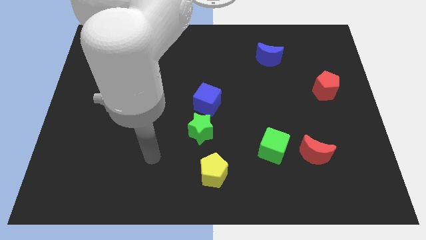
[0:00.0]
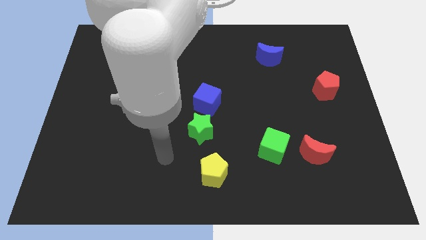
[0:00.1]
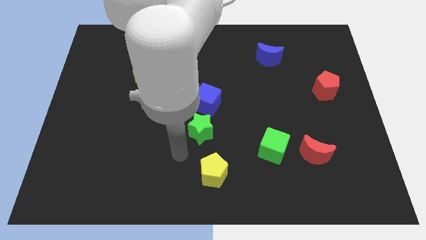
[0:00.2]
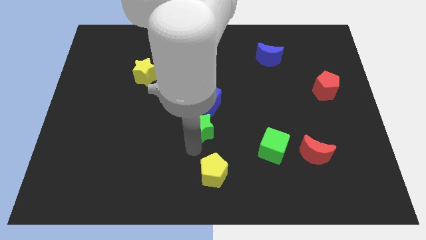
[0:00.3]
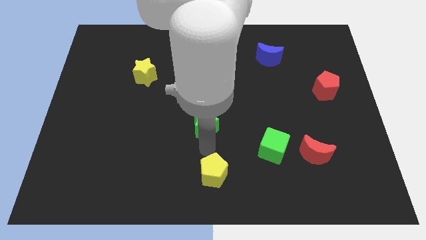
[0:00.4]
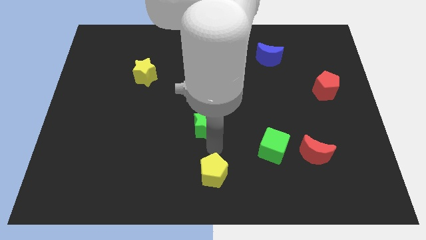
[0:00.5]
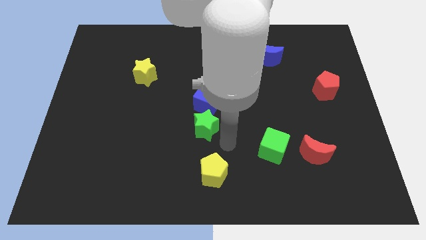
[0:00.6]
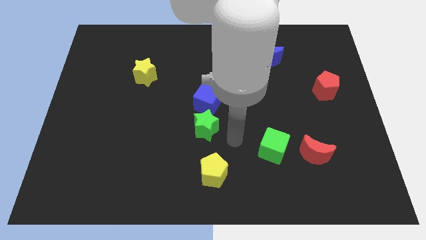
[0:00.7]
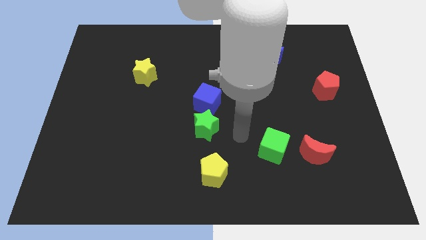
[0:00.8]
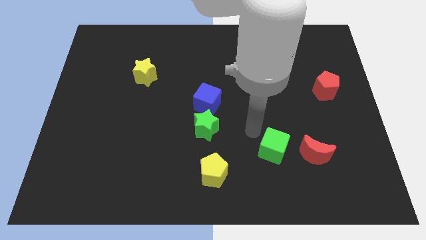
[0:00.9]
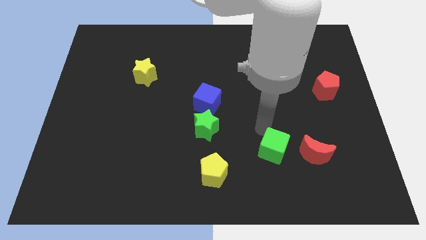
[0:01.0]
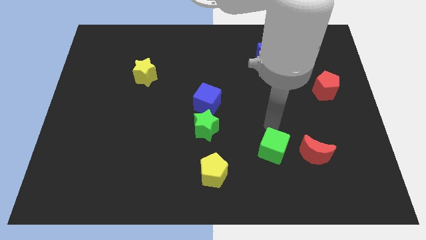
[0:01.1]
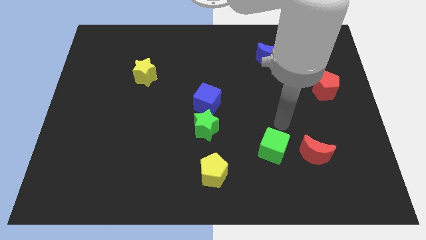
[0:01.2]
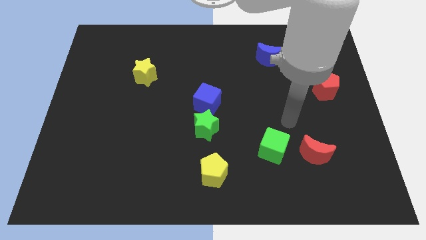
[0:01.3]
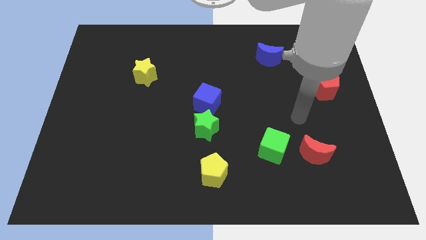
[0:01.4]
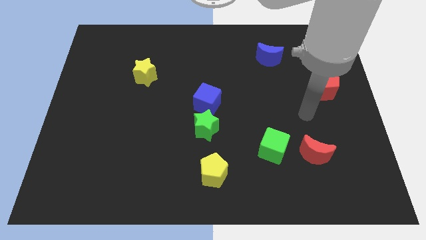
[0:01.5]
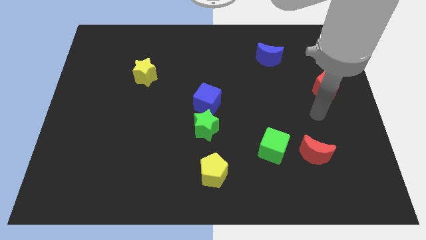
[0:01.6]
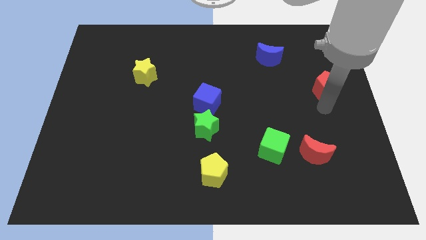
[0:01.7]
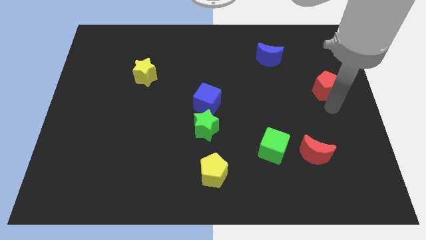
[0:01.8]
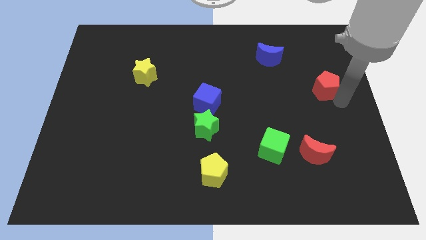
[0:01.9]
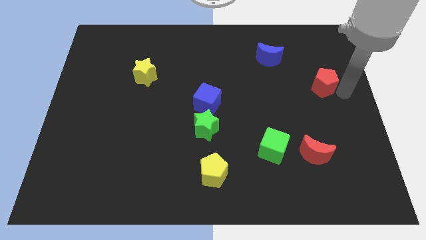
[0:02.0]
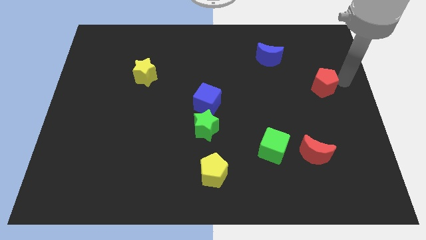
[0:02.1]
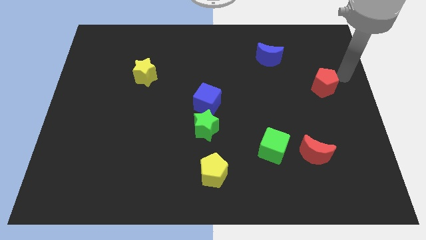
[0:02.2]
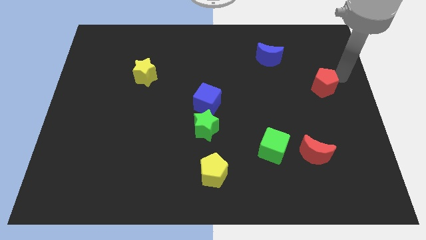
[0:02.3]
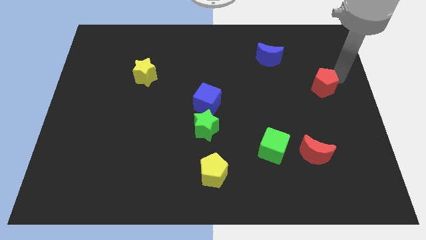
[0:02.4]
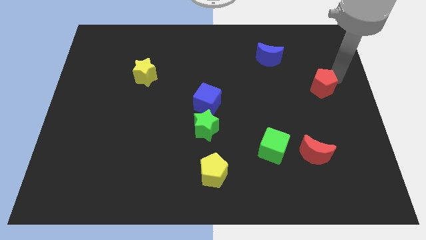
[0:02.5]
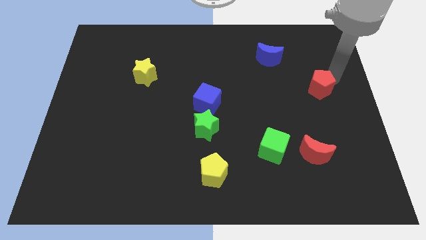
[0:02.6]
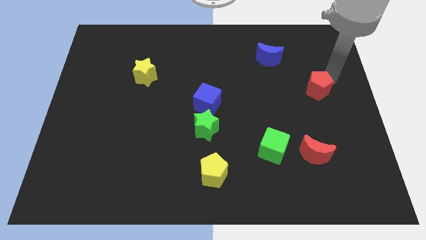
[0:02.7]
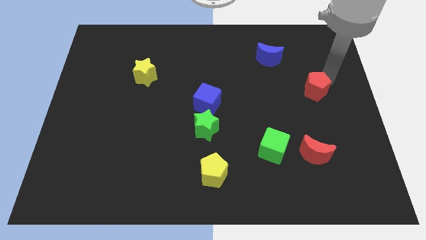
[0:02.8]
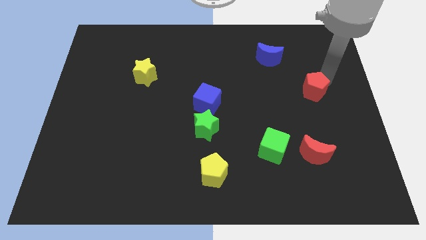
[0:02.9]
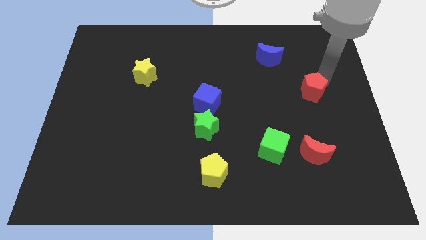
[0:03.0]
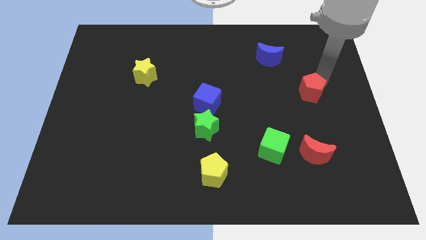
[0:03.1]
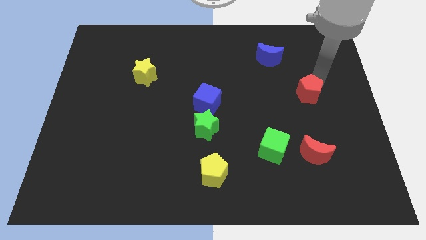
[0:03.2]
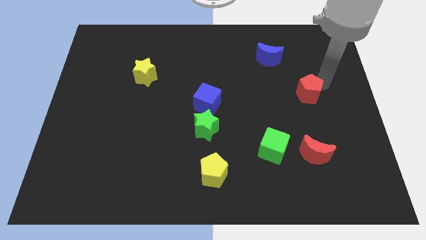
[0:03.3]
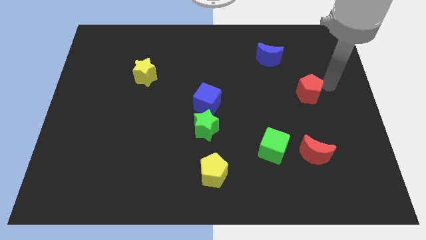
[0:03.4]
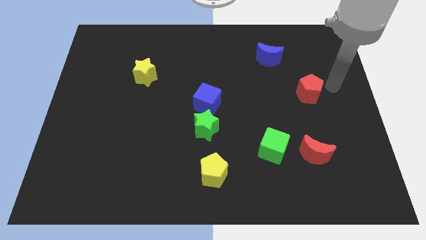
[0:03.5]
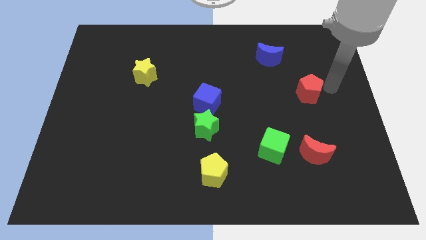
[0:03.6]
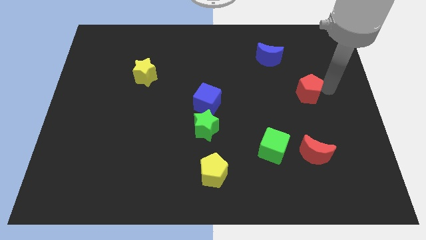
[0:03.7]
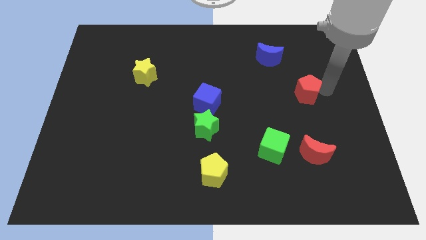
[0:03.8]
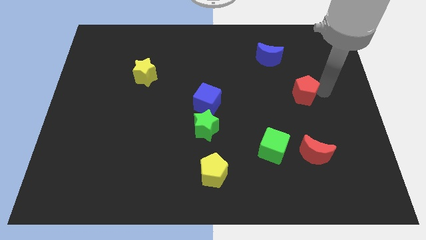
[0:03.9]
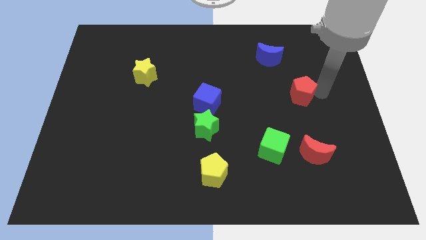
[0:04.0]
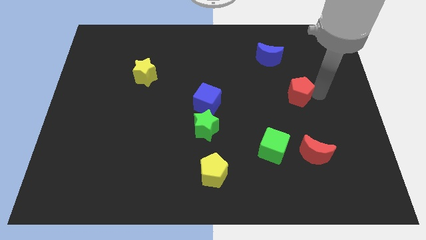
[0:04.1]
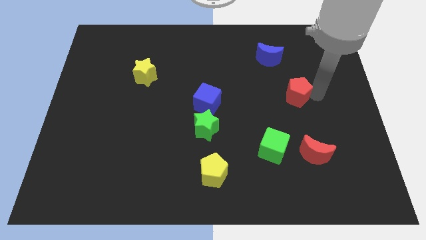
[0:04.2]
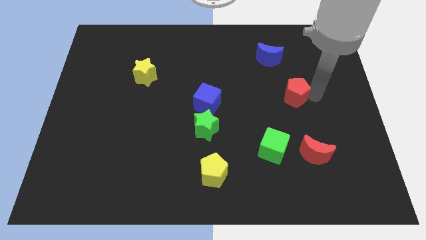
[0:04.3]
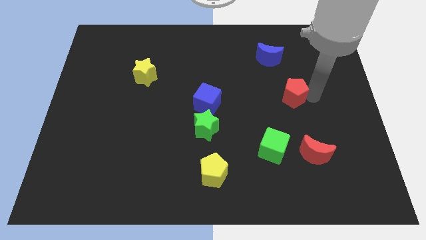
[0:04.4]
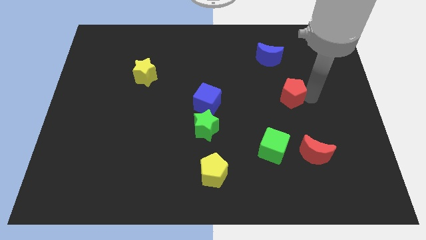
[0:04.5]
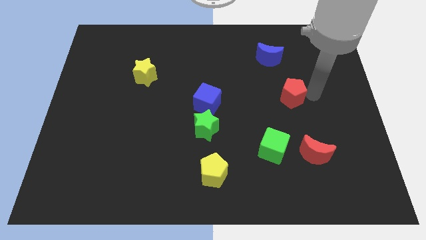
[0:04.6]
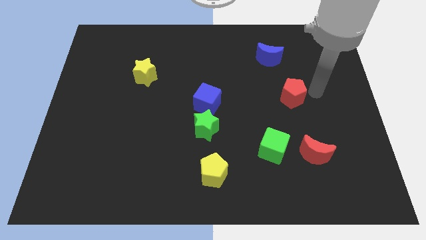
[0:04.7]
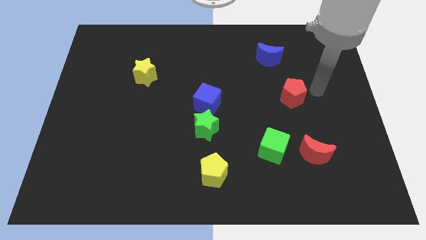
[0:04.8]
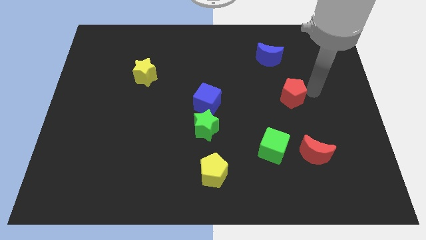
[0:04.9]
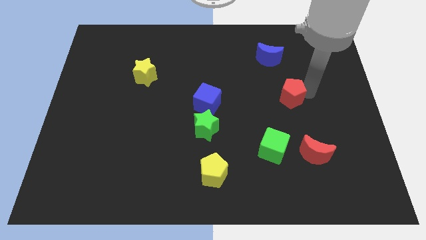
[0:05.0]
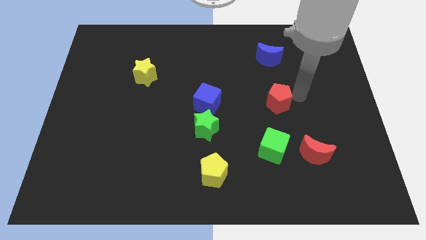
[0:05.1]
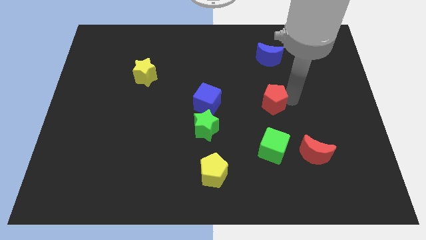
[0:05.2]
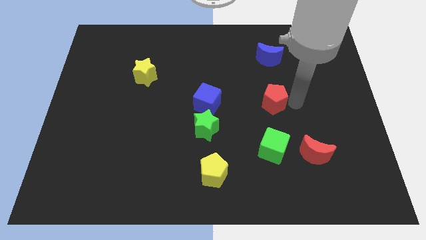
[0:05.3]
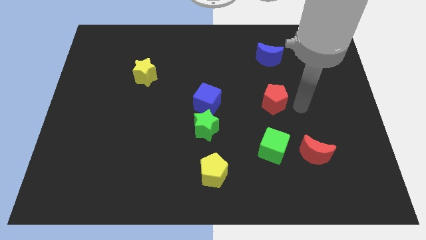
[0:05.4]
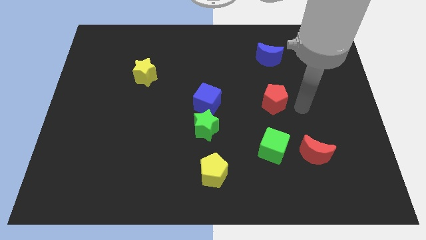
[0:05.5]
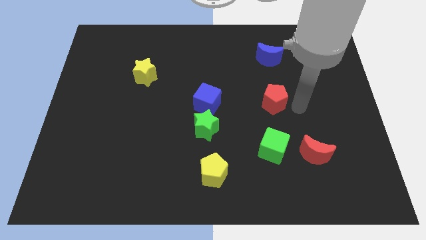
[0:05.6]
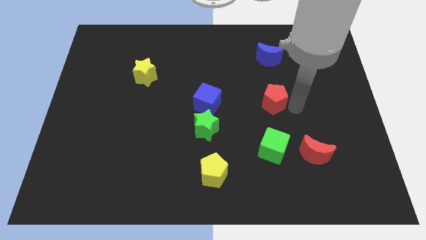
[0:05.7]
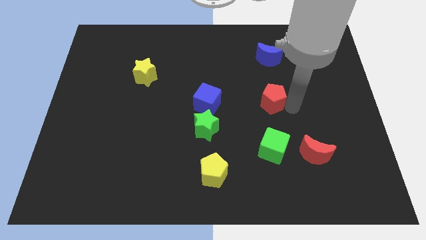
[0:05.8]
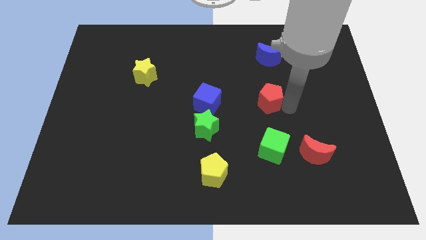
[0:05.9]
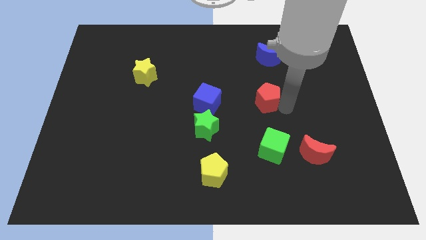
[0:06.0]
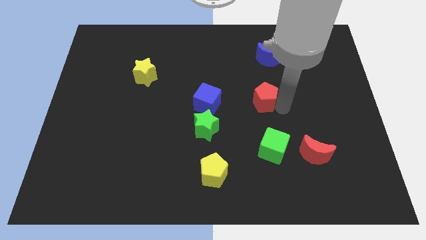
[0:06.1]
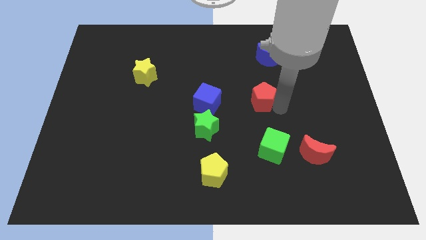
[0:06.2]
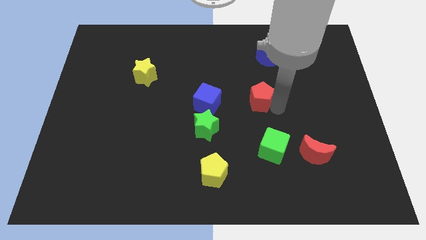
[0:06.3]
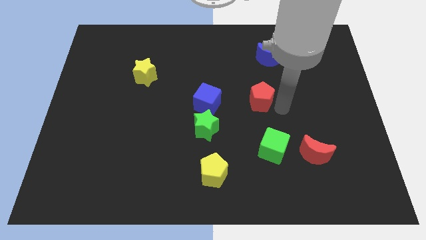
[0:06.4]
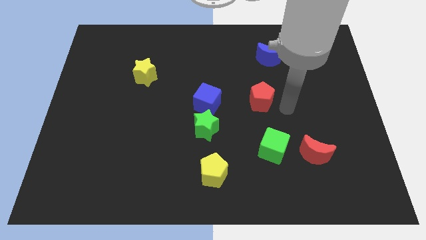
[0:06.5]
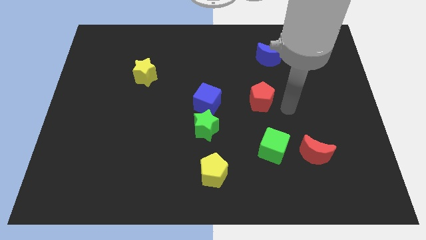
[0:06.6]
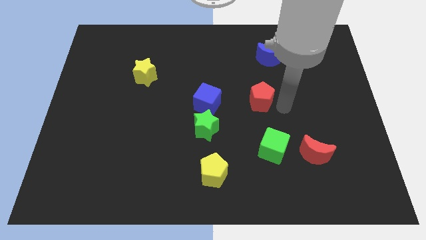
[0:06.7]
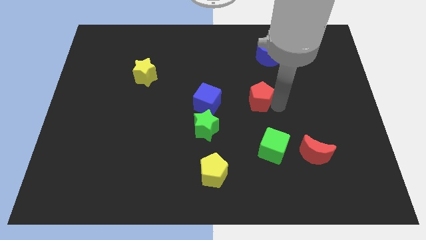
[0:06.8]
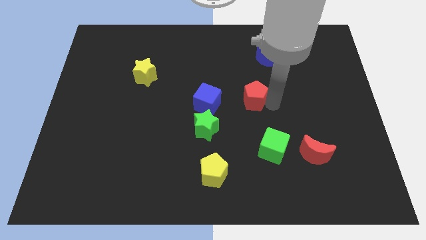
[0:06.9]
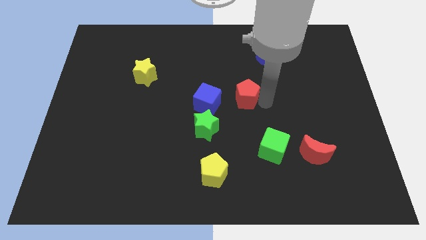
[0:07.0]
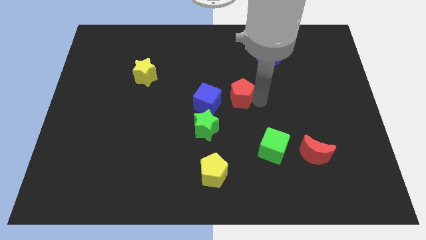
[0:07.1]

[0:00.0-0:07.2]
push the red pentagon left

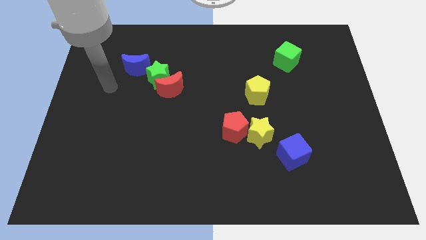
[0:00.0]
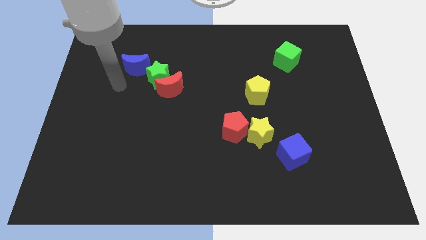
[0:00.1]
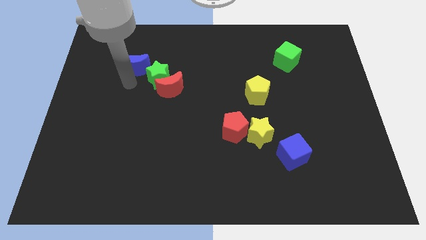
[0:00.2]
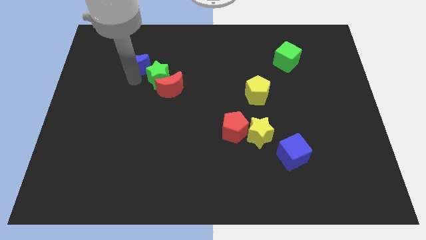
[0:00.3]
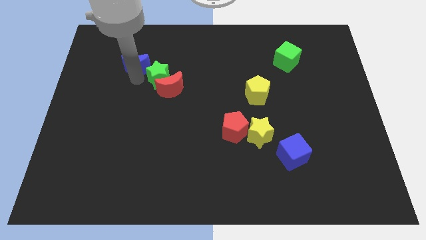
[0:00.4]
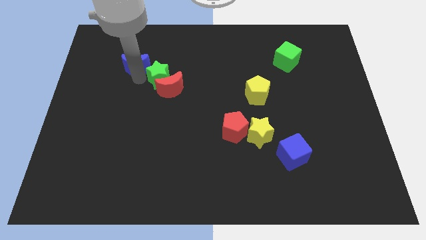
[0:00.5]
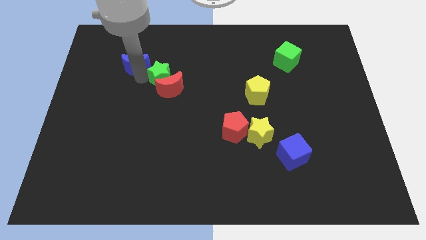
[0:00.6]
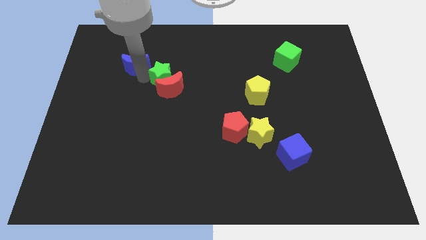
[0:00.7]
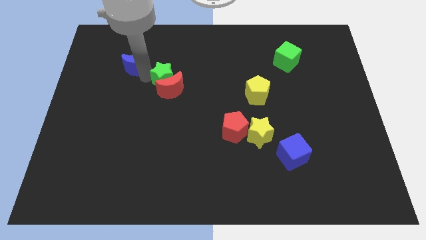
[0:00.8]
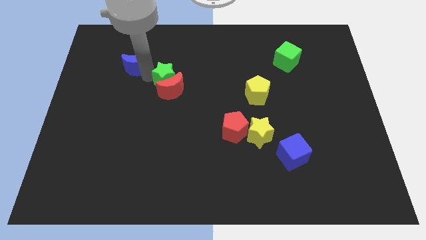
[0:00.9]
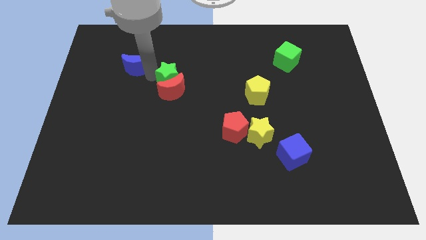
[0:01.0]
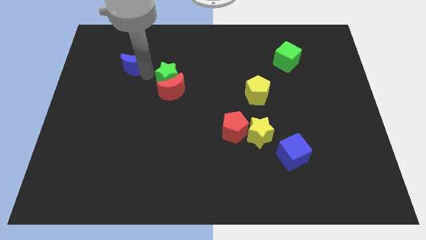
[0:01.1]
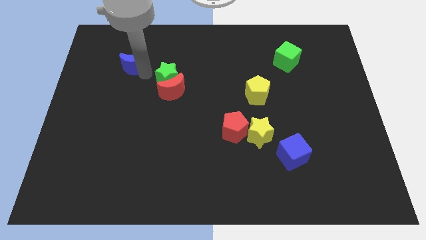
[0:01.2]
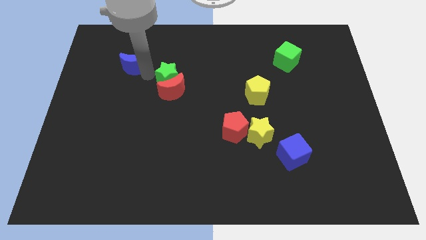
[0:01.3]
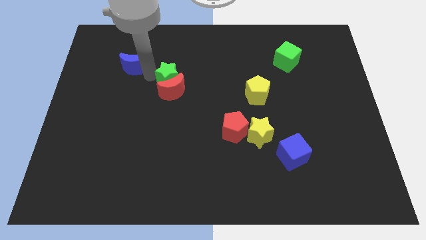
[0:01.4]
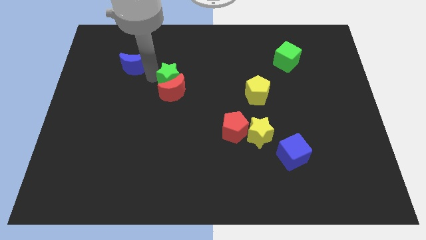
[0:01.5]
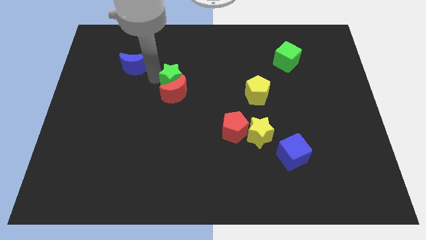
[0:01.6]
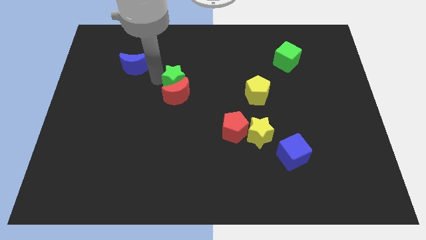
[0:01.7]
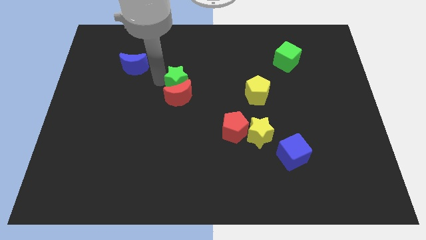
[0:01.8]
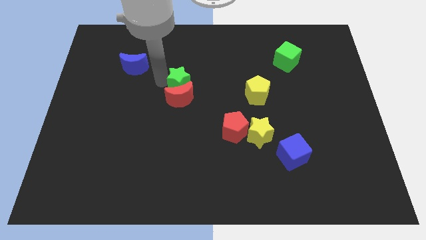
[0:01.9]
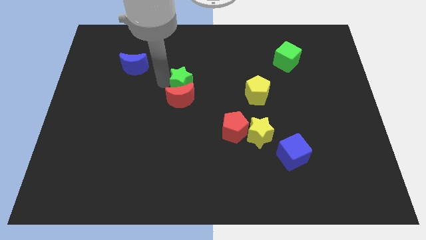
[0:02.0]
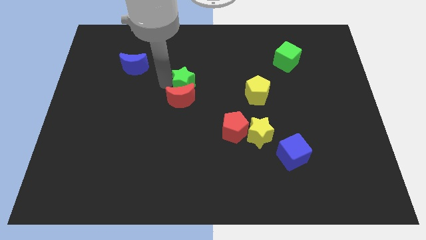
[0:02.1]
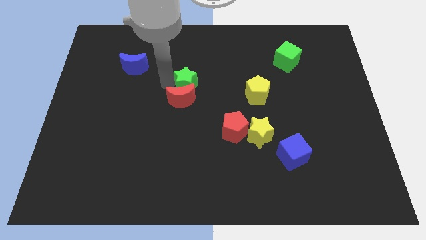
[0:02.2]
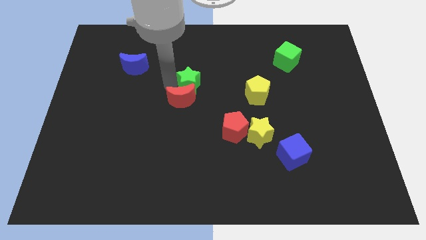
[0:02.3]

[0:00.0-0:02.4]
slightly slide the green star to the right
